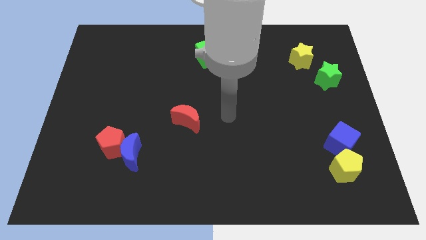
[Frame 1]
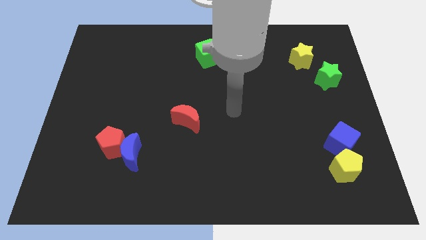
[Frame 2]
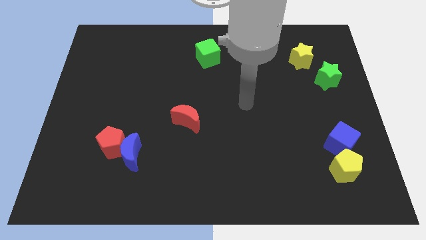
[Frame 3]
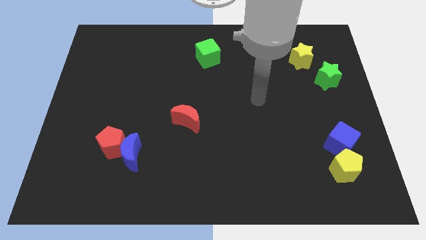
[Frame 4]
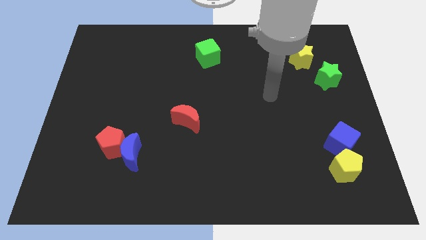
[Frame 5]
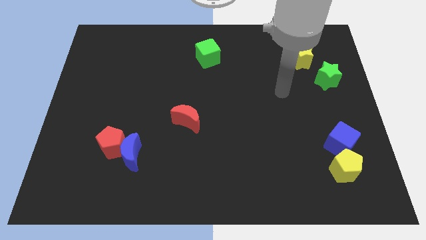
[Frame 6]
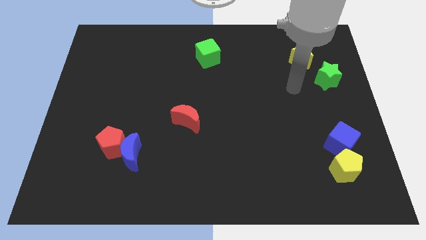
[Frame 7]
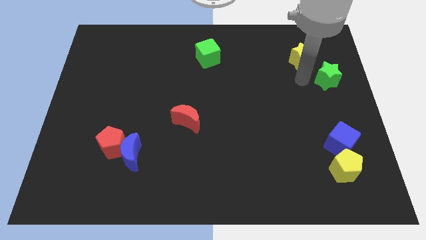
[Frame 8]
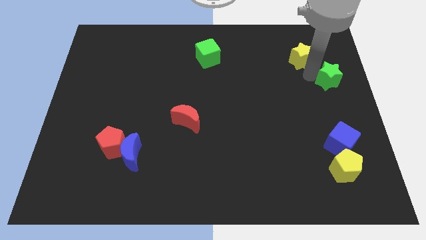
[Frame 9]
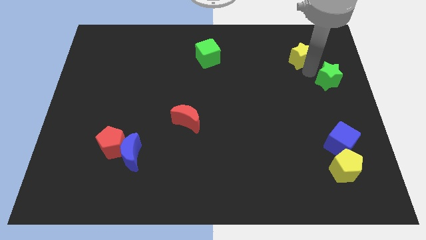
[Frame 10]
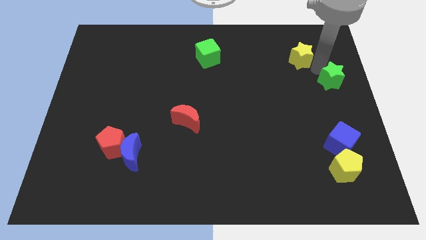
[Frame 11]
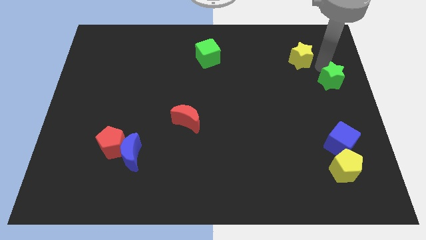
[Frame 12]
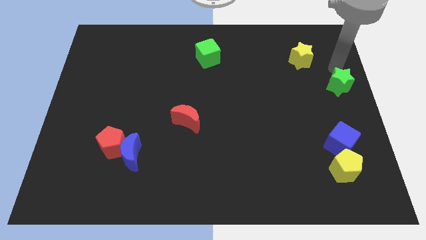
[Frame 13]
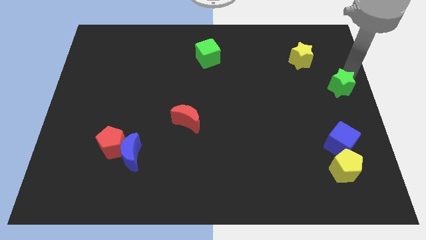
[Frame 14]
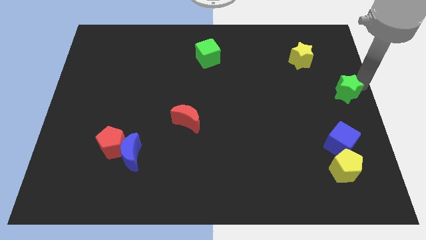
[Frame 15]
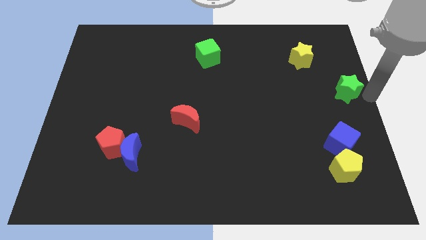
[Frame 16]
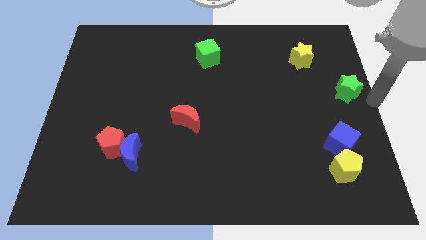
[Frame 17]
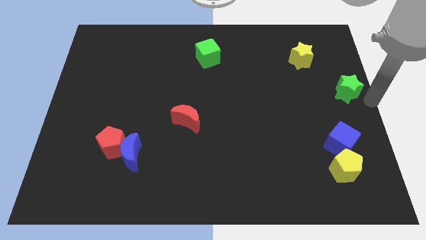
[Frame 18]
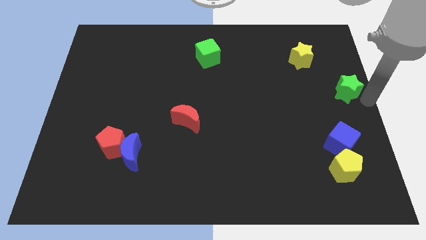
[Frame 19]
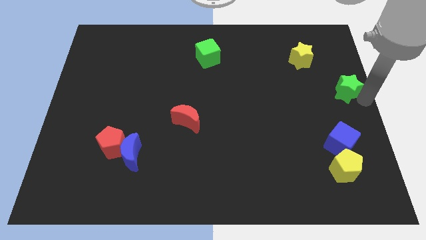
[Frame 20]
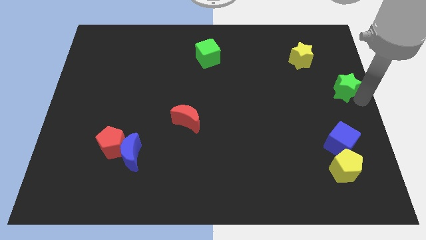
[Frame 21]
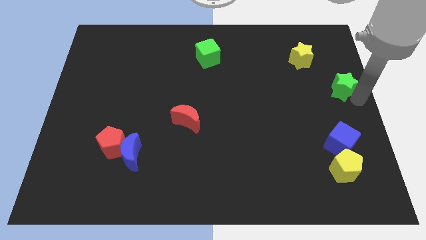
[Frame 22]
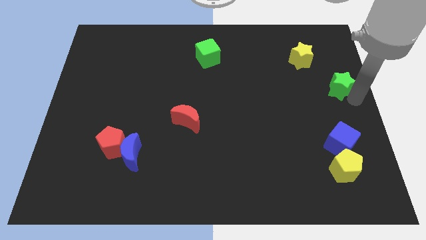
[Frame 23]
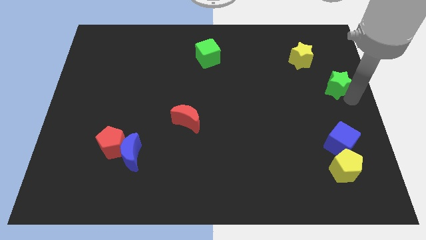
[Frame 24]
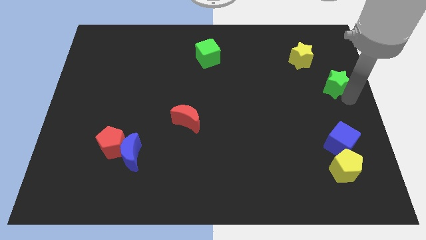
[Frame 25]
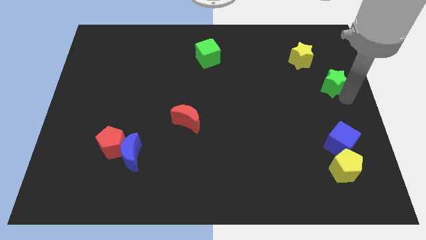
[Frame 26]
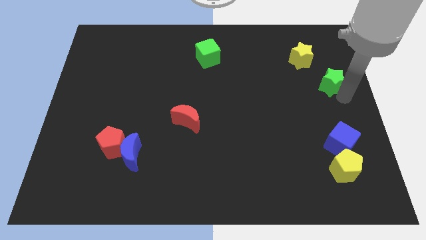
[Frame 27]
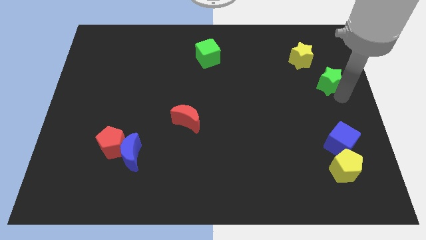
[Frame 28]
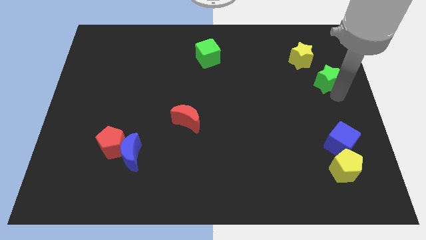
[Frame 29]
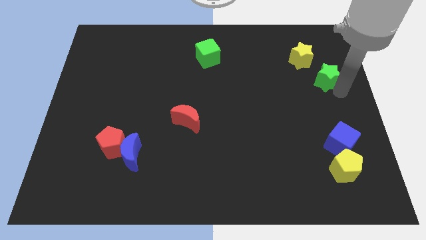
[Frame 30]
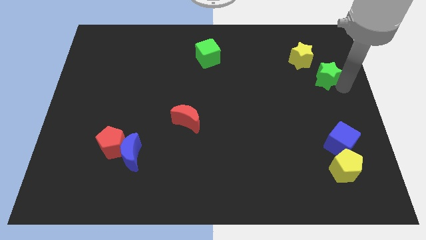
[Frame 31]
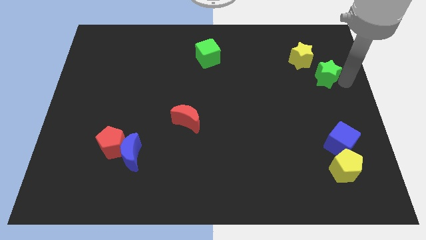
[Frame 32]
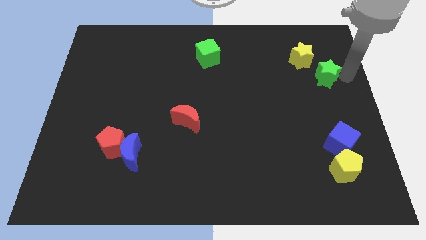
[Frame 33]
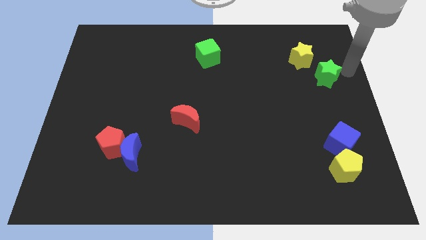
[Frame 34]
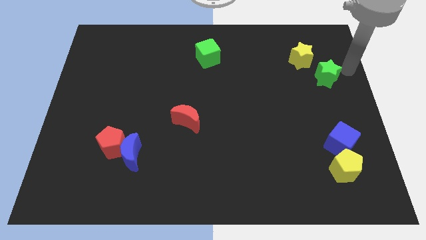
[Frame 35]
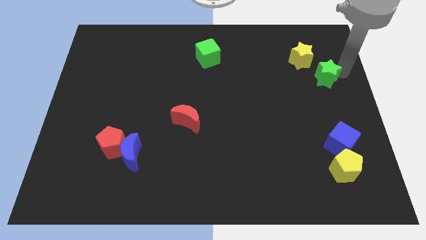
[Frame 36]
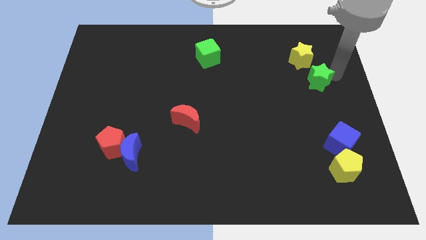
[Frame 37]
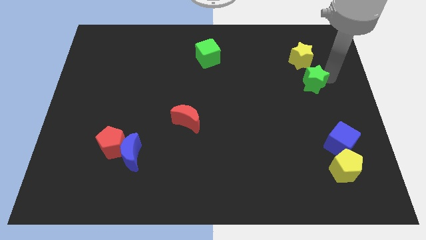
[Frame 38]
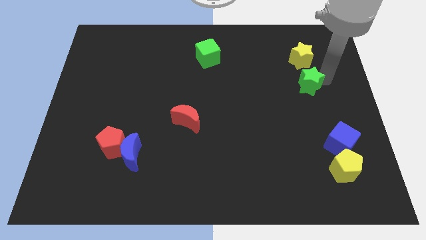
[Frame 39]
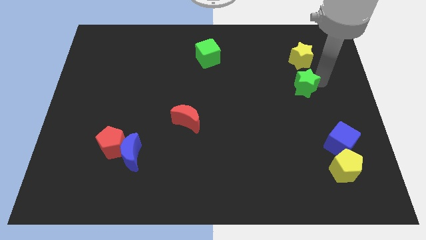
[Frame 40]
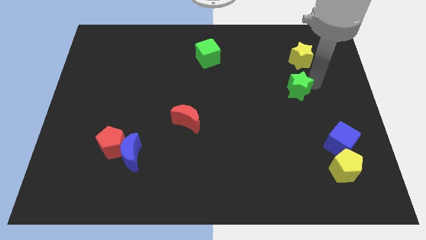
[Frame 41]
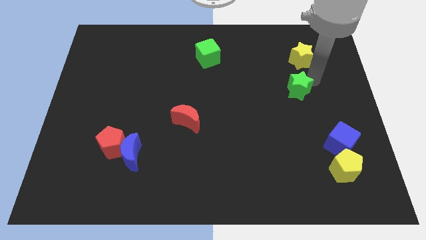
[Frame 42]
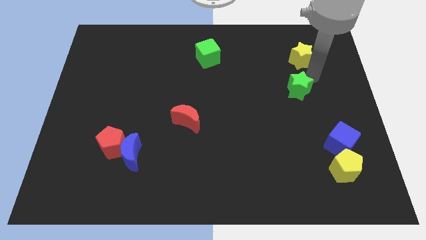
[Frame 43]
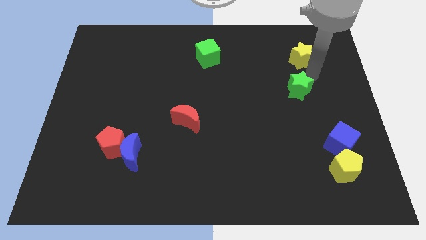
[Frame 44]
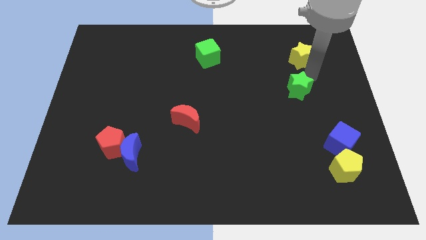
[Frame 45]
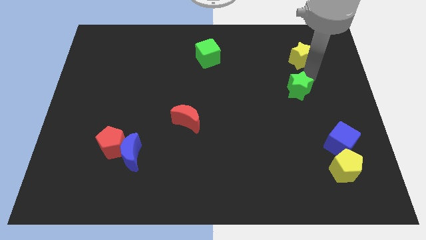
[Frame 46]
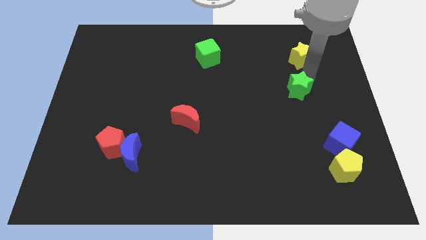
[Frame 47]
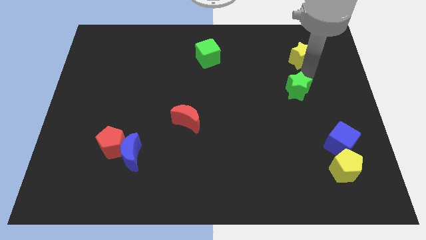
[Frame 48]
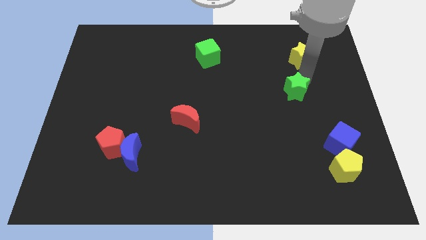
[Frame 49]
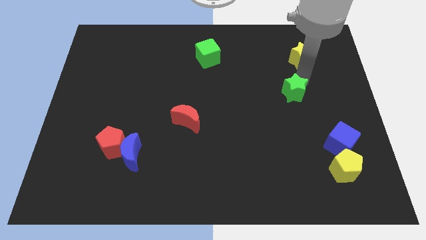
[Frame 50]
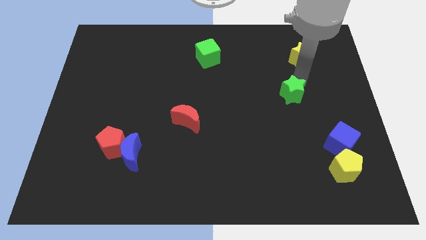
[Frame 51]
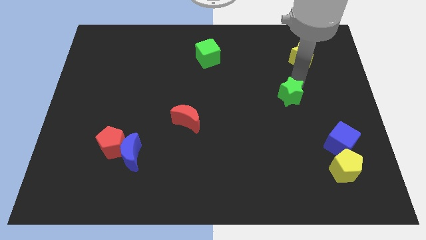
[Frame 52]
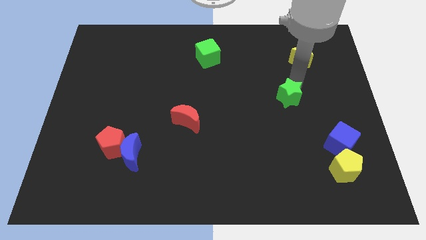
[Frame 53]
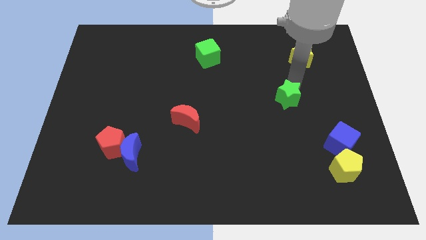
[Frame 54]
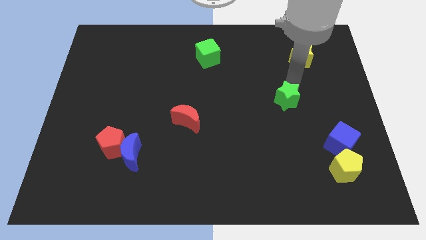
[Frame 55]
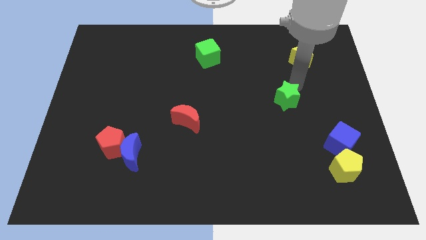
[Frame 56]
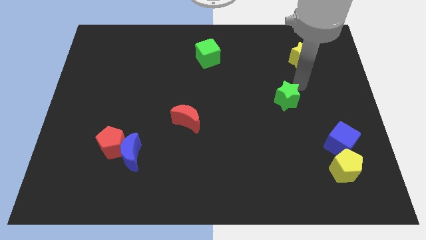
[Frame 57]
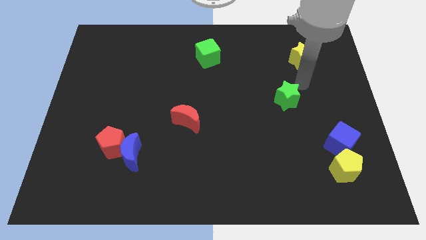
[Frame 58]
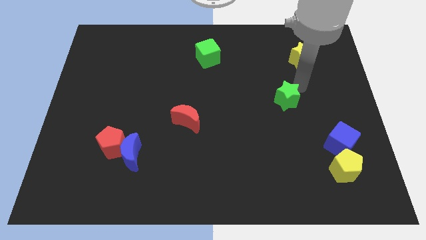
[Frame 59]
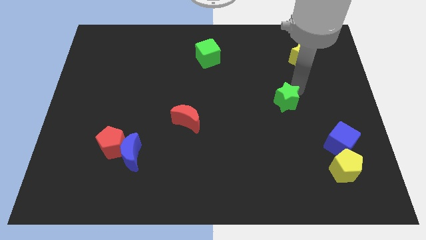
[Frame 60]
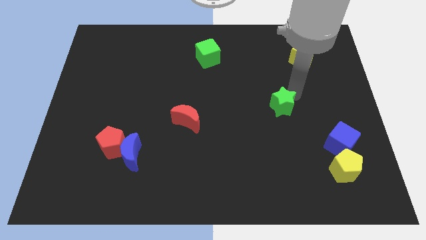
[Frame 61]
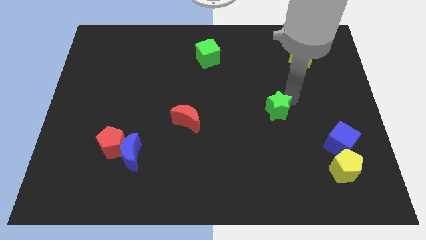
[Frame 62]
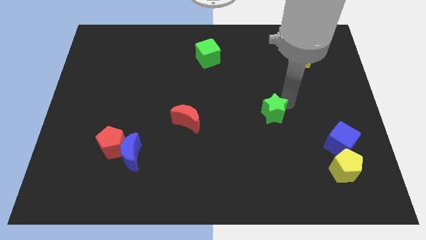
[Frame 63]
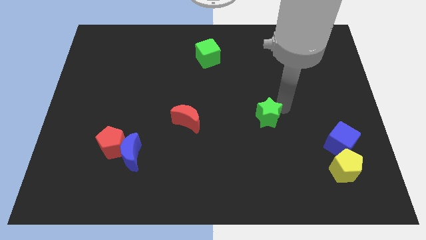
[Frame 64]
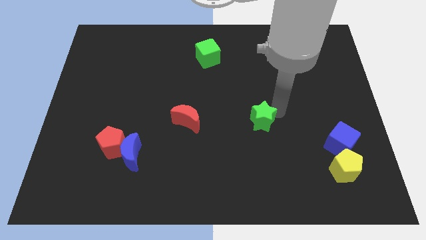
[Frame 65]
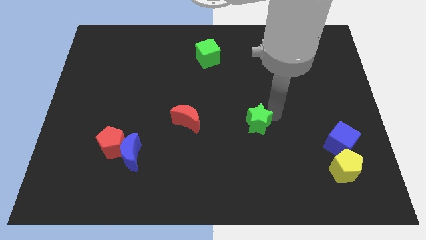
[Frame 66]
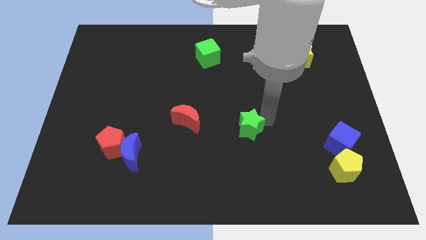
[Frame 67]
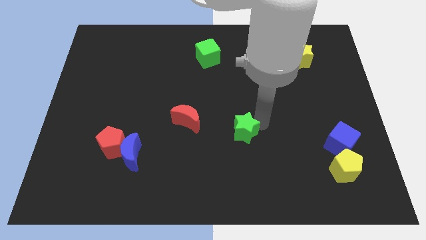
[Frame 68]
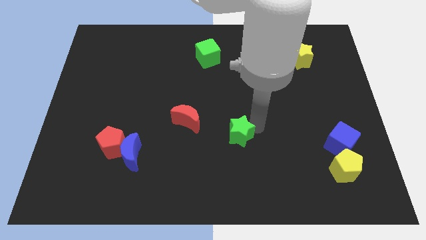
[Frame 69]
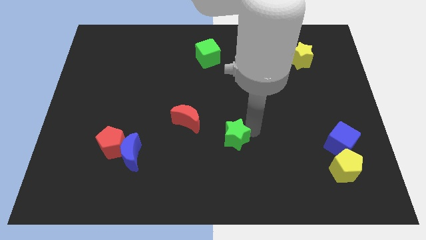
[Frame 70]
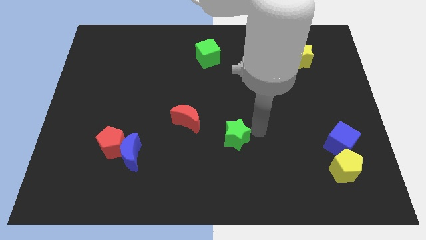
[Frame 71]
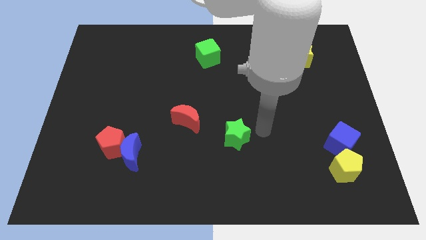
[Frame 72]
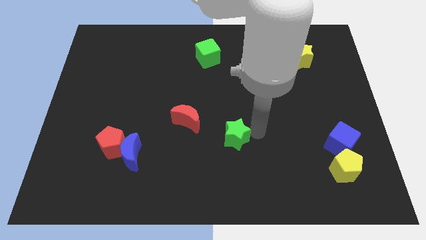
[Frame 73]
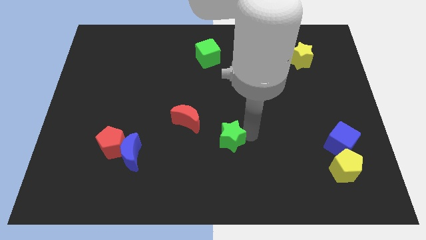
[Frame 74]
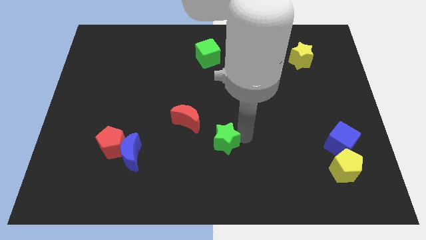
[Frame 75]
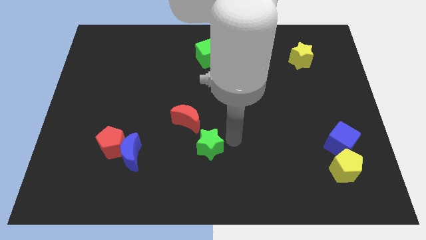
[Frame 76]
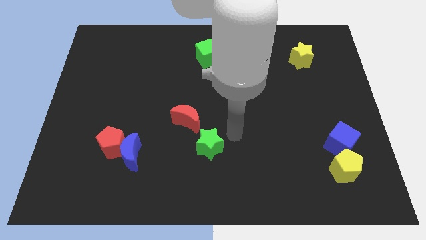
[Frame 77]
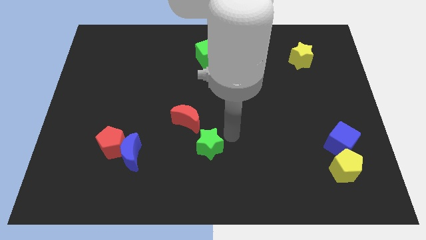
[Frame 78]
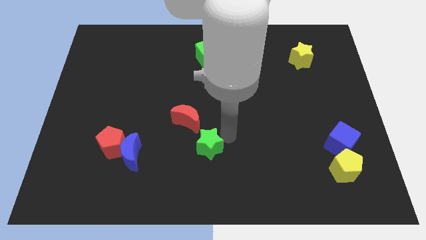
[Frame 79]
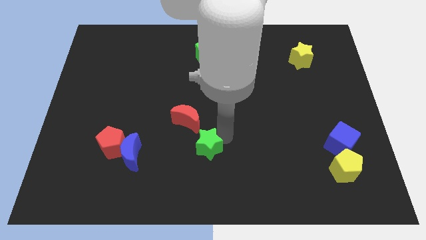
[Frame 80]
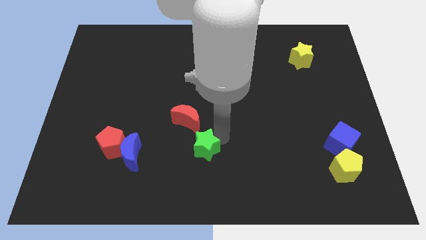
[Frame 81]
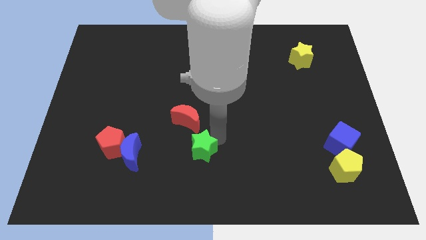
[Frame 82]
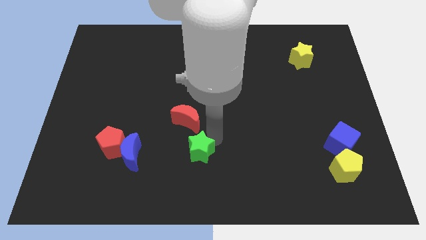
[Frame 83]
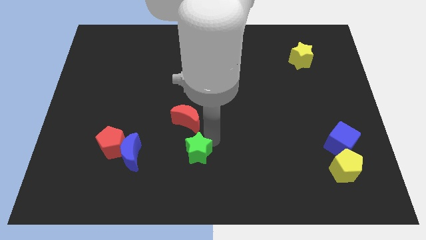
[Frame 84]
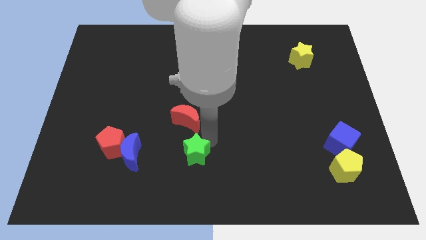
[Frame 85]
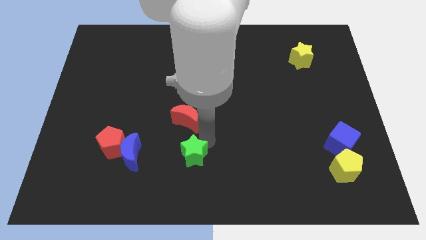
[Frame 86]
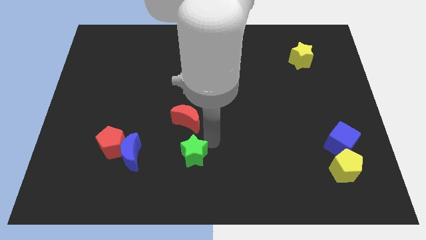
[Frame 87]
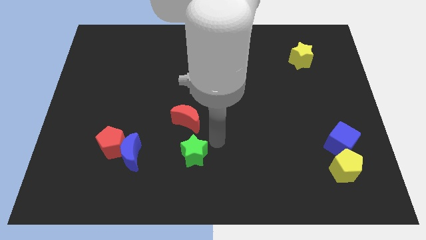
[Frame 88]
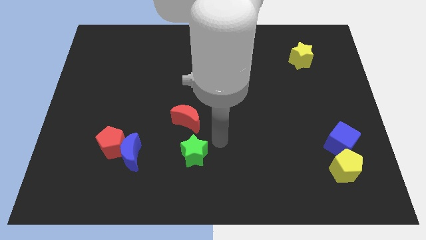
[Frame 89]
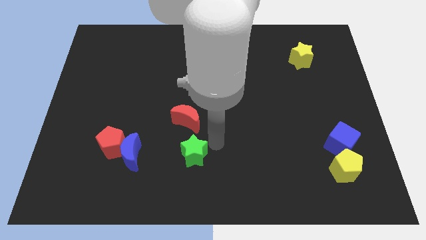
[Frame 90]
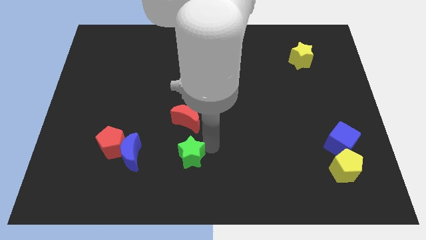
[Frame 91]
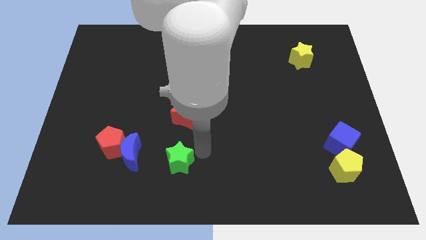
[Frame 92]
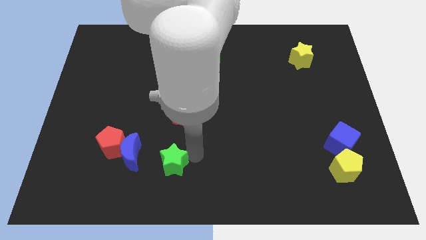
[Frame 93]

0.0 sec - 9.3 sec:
push the green star diagonally down and to the right of the blue moon
